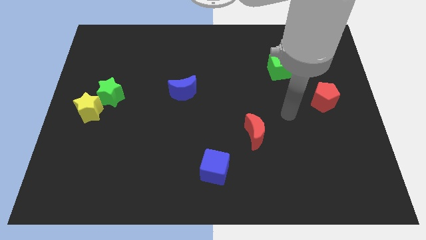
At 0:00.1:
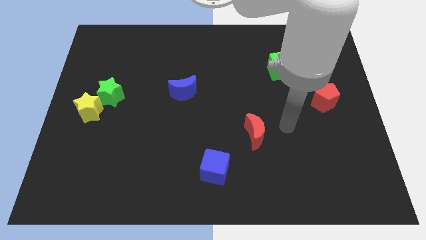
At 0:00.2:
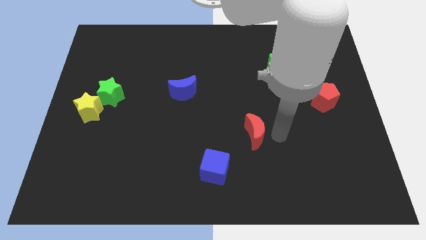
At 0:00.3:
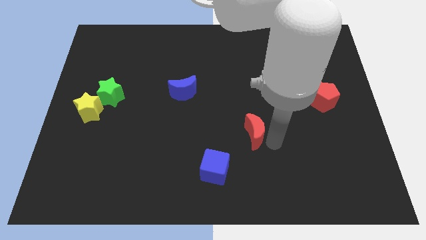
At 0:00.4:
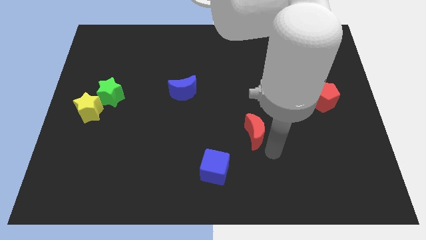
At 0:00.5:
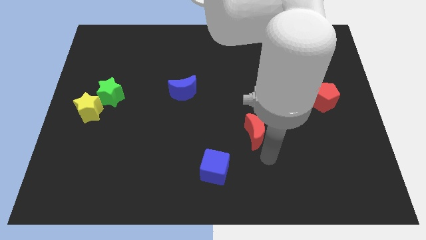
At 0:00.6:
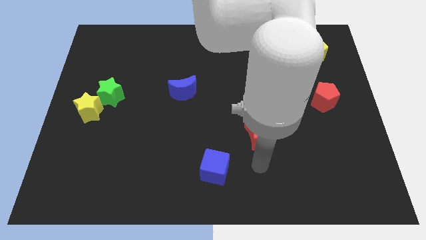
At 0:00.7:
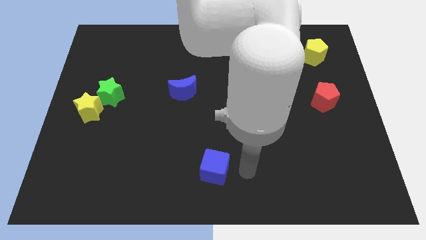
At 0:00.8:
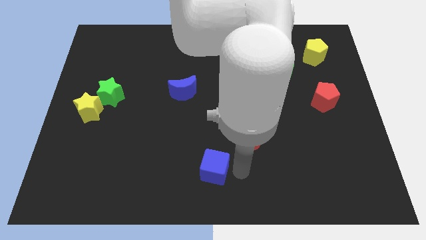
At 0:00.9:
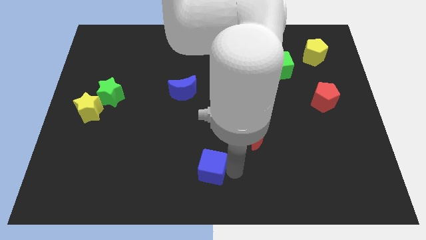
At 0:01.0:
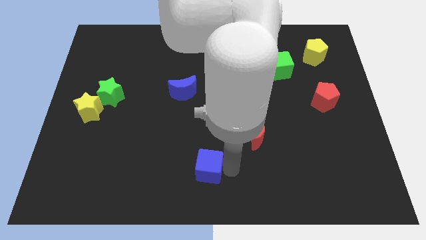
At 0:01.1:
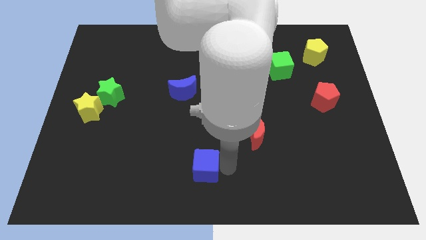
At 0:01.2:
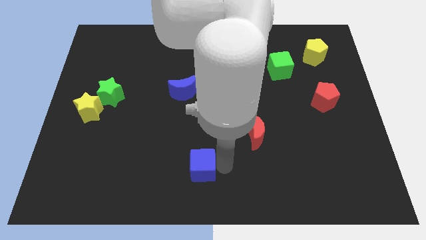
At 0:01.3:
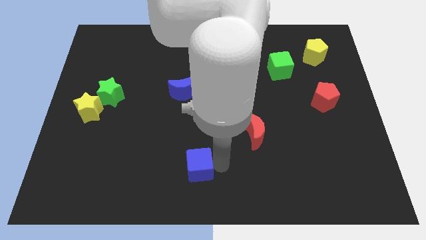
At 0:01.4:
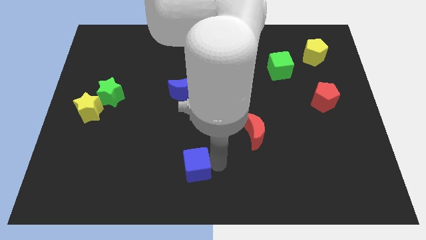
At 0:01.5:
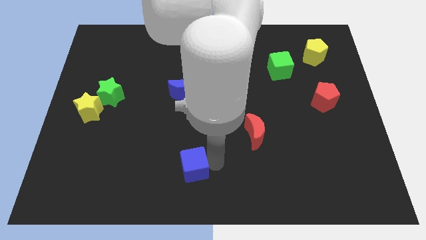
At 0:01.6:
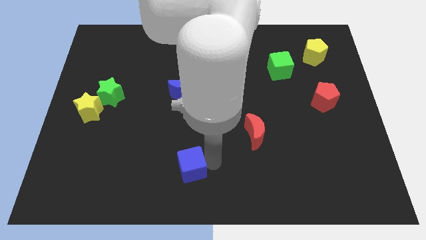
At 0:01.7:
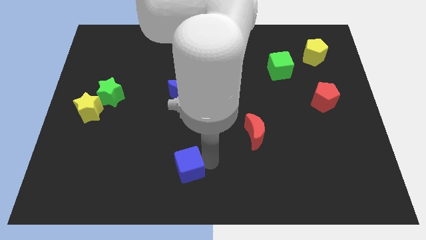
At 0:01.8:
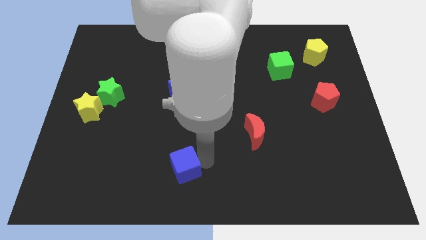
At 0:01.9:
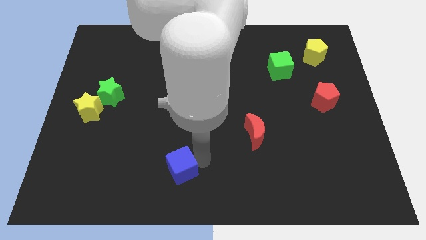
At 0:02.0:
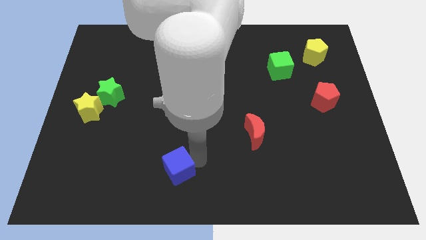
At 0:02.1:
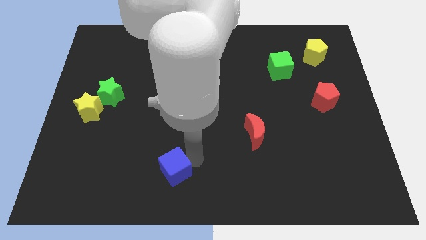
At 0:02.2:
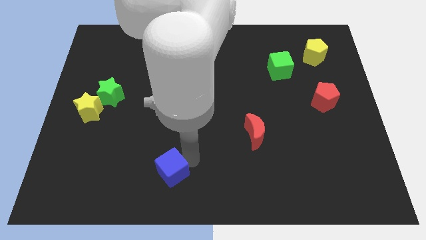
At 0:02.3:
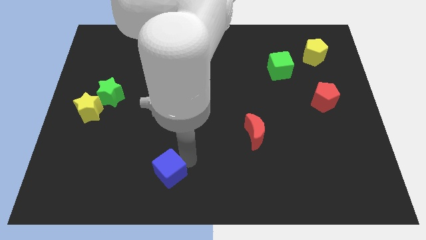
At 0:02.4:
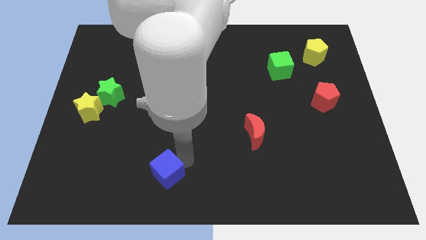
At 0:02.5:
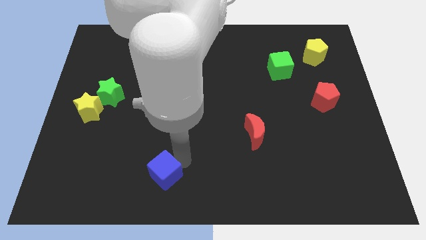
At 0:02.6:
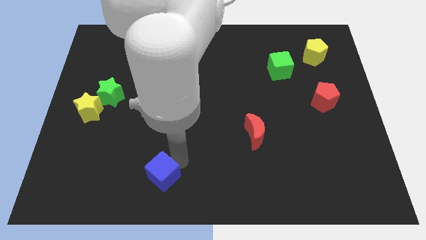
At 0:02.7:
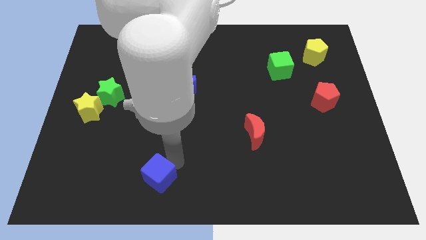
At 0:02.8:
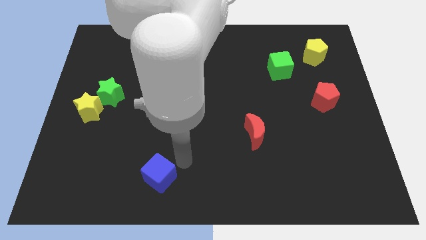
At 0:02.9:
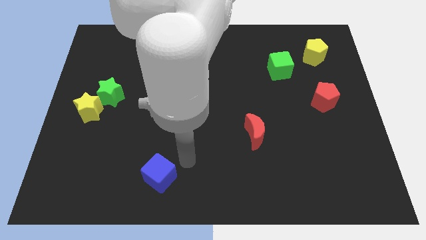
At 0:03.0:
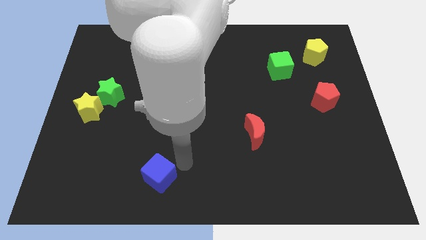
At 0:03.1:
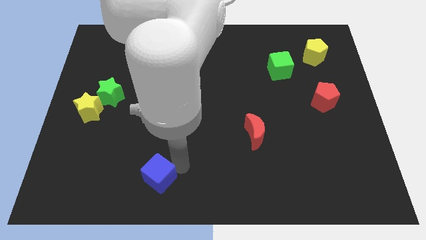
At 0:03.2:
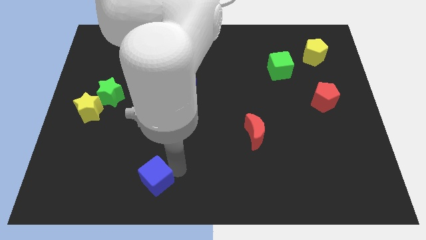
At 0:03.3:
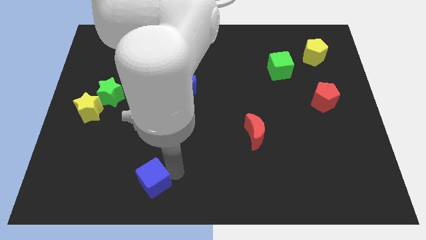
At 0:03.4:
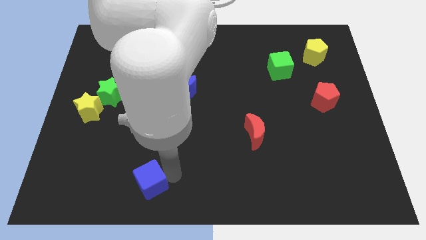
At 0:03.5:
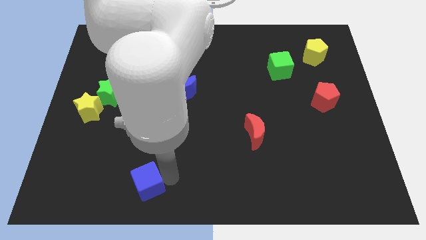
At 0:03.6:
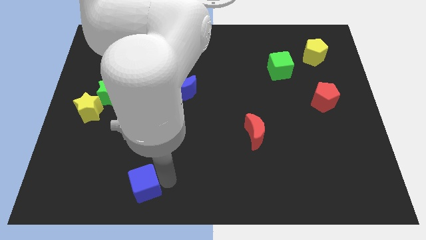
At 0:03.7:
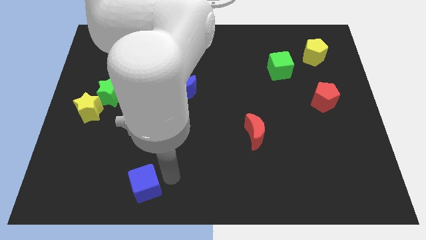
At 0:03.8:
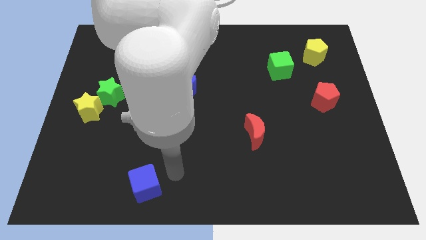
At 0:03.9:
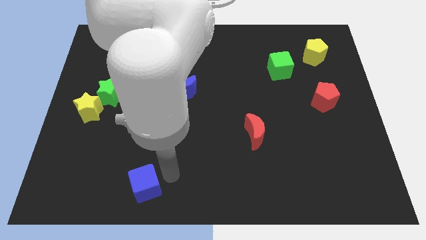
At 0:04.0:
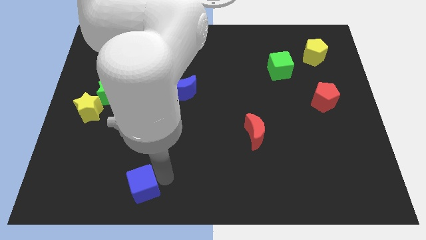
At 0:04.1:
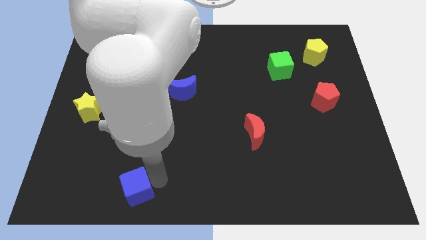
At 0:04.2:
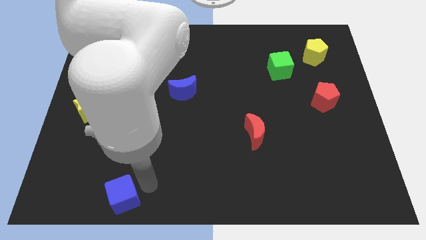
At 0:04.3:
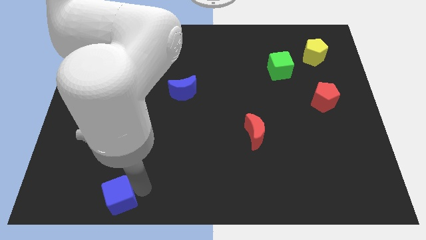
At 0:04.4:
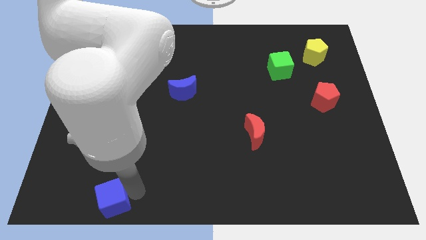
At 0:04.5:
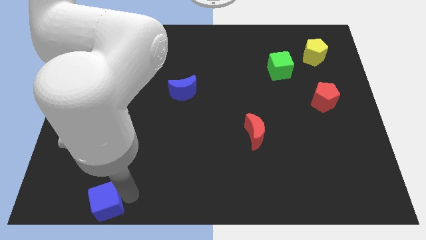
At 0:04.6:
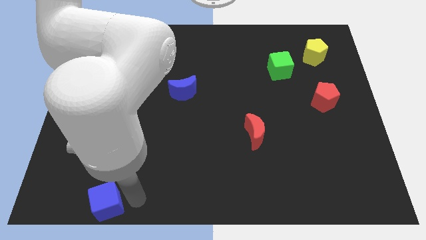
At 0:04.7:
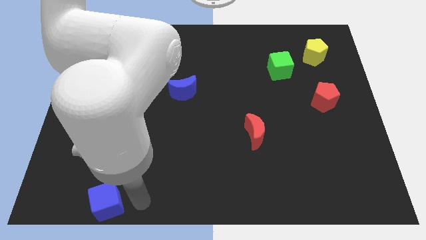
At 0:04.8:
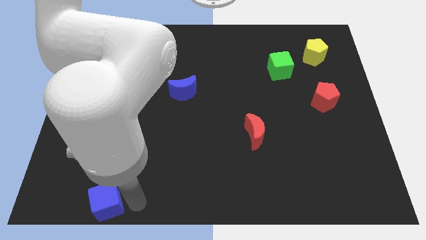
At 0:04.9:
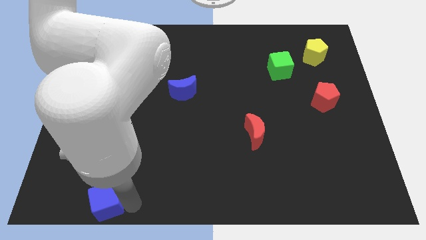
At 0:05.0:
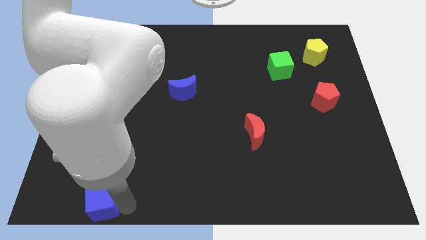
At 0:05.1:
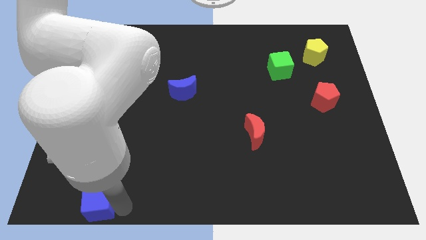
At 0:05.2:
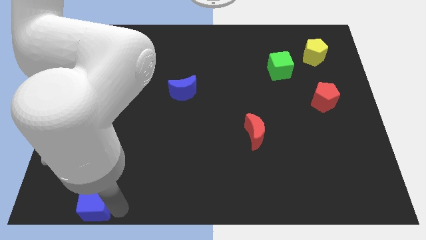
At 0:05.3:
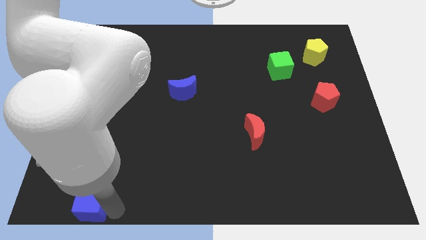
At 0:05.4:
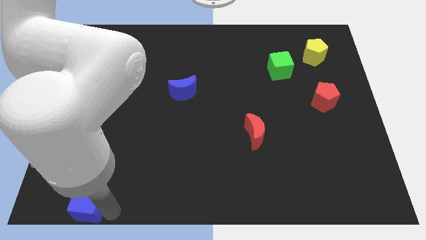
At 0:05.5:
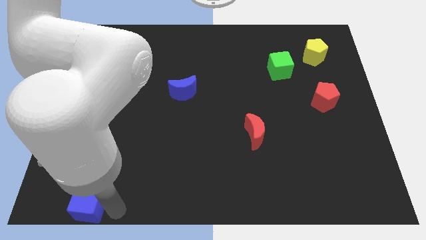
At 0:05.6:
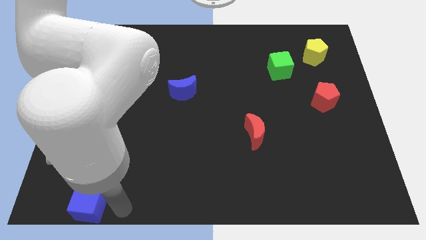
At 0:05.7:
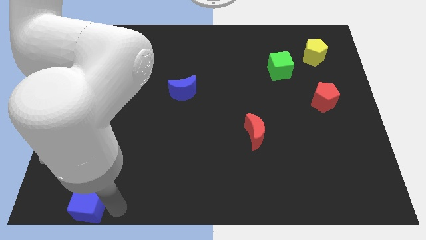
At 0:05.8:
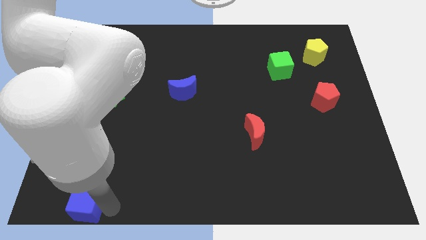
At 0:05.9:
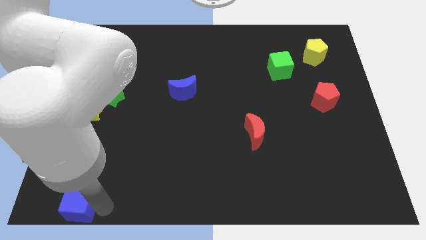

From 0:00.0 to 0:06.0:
push the blue cube to the lower left corner

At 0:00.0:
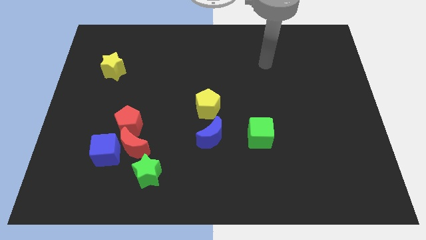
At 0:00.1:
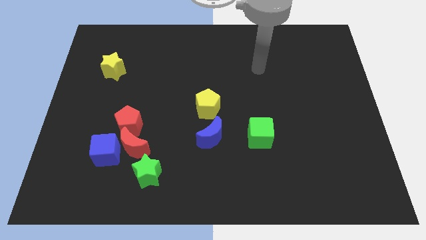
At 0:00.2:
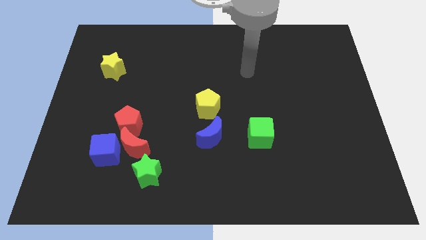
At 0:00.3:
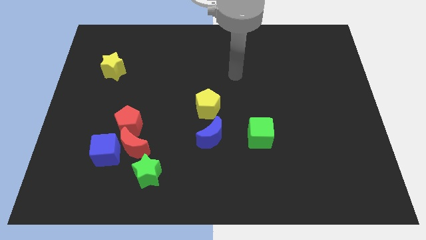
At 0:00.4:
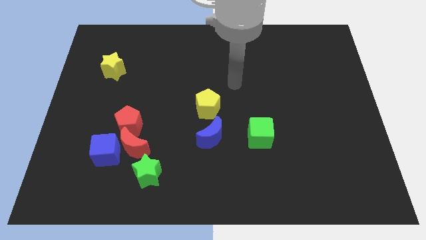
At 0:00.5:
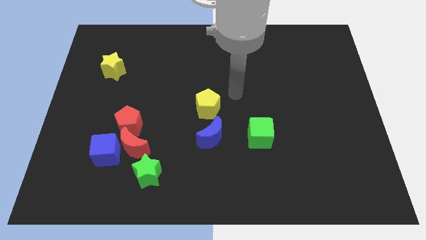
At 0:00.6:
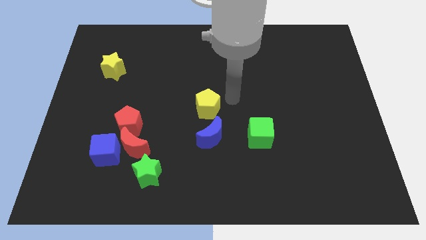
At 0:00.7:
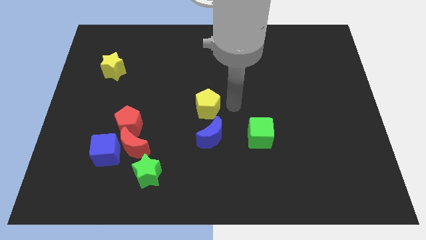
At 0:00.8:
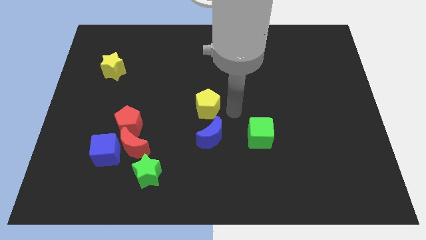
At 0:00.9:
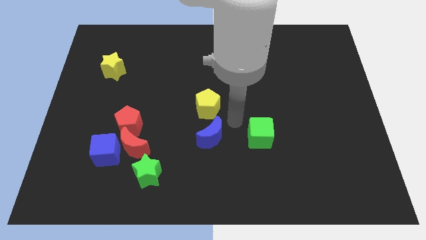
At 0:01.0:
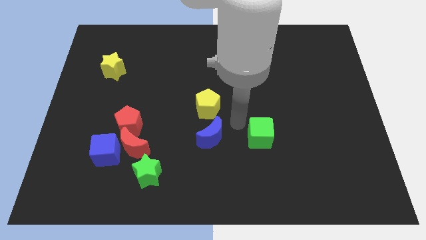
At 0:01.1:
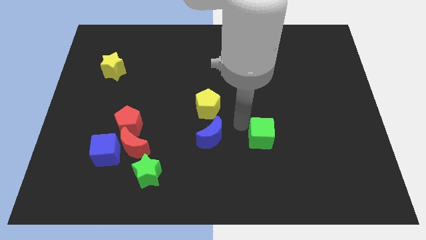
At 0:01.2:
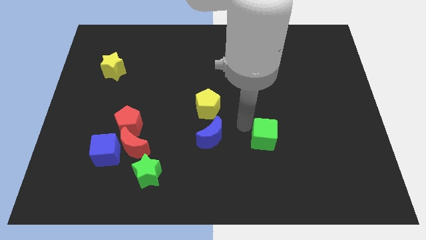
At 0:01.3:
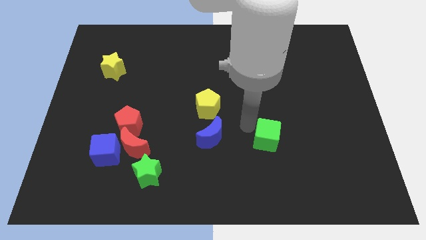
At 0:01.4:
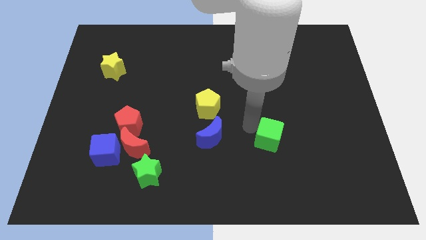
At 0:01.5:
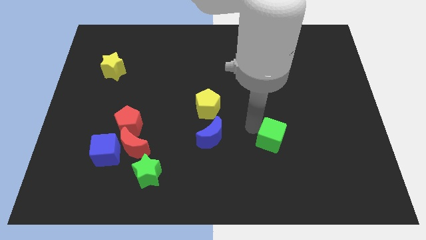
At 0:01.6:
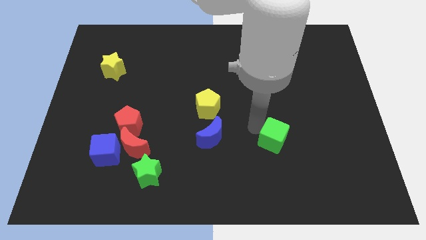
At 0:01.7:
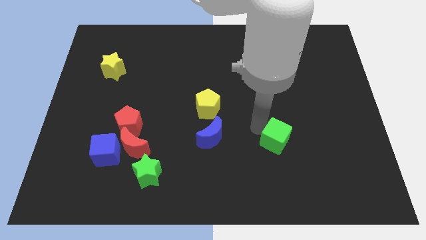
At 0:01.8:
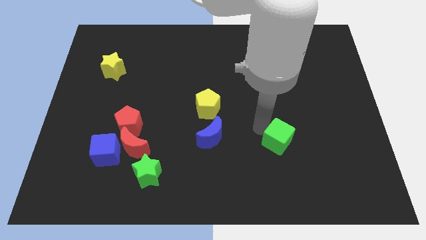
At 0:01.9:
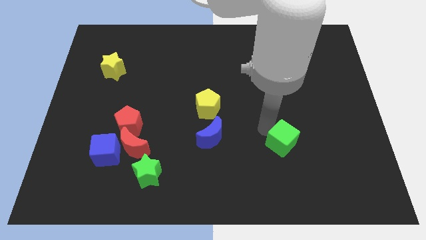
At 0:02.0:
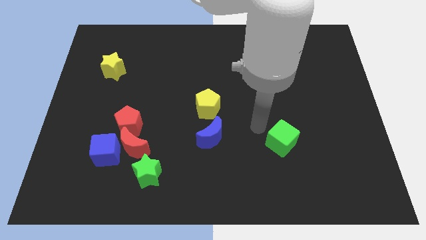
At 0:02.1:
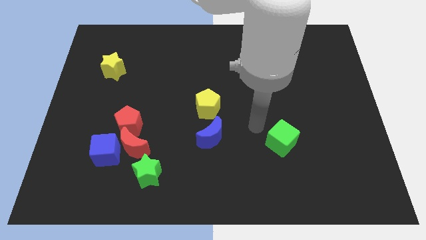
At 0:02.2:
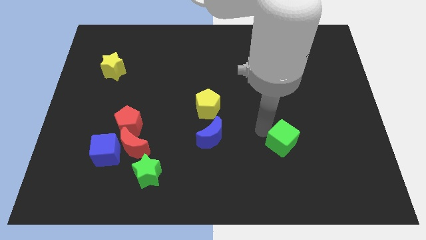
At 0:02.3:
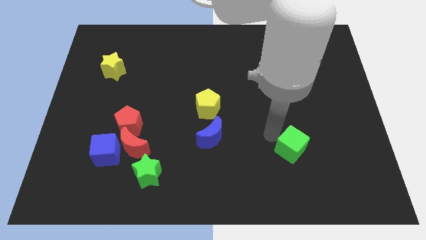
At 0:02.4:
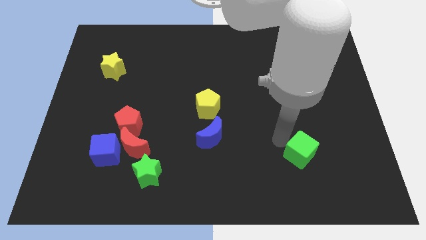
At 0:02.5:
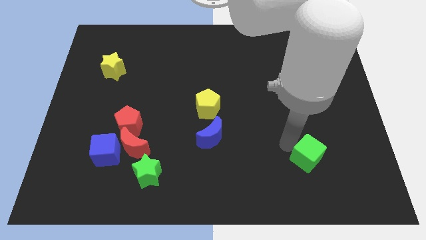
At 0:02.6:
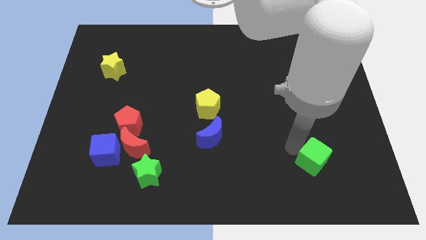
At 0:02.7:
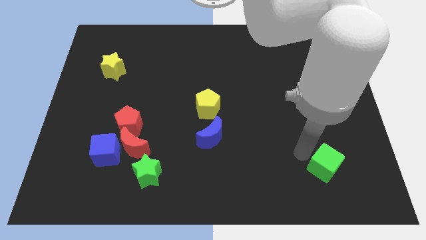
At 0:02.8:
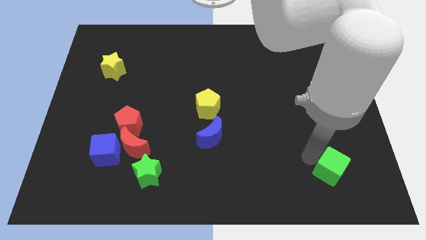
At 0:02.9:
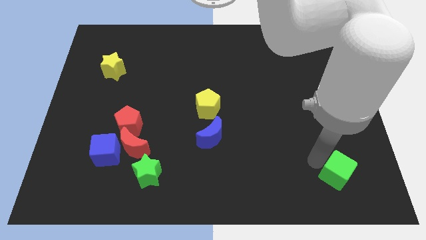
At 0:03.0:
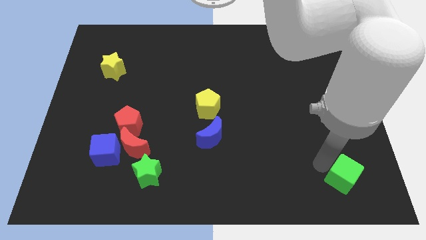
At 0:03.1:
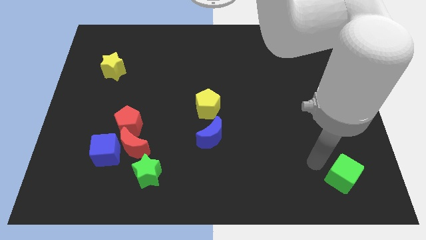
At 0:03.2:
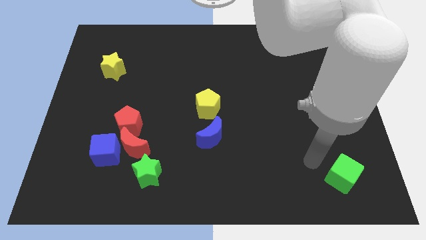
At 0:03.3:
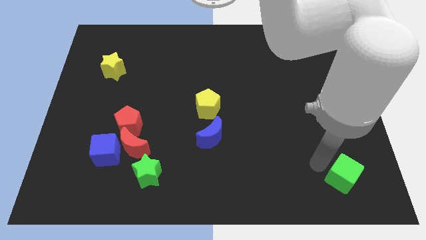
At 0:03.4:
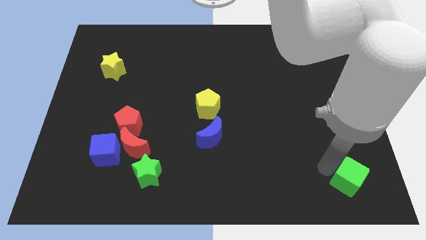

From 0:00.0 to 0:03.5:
move the green cube to the bottom right
